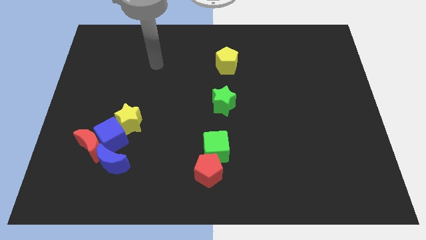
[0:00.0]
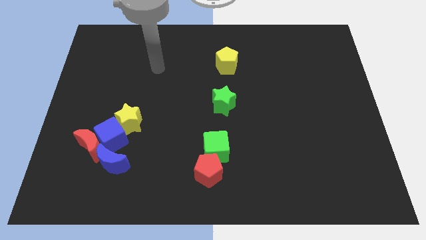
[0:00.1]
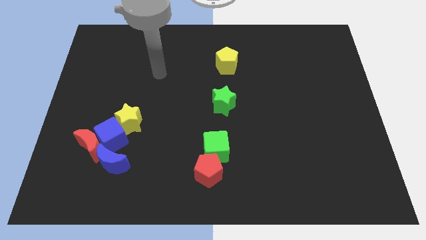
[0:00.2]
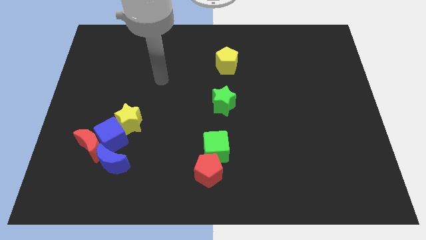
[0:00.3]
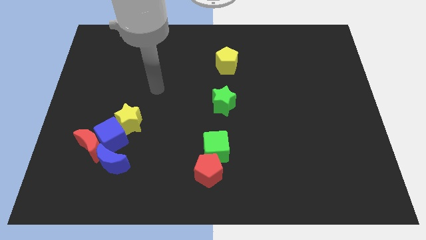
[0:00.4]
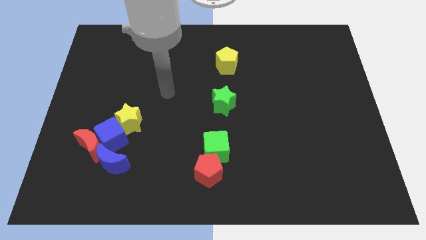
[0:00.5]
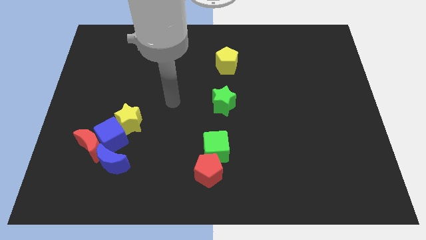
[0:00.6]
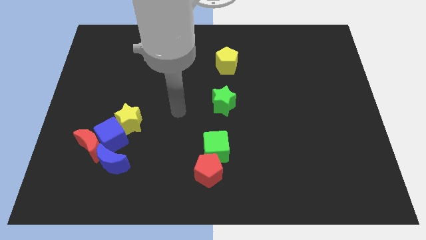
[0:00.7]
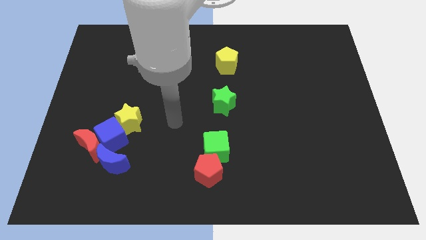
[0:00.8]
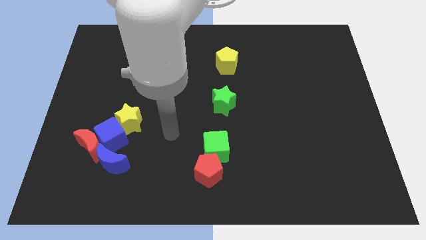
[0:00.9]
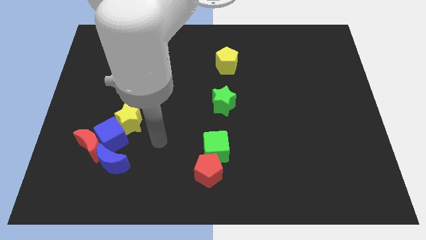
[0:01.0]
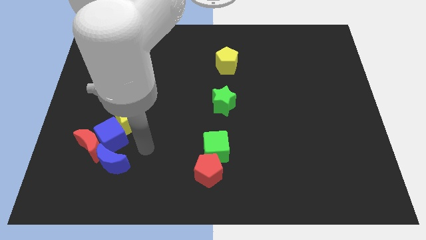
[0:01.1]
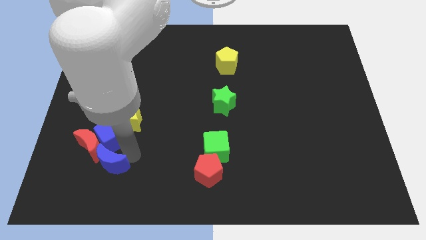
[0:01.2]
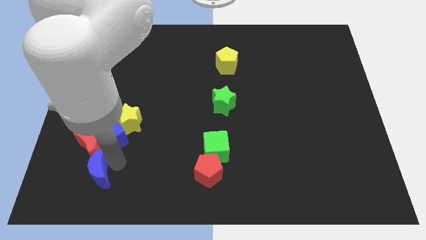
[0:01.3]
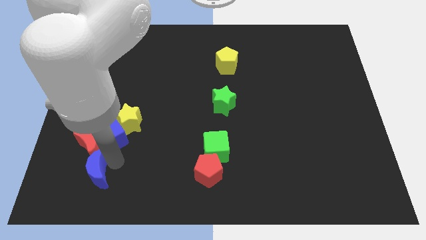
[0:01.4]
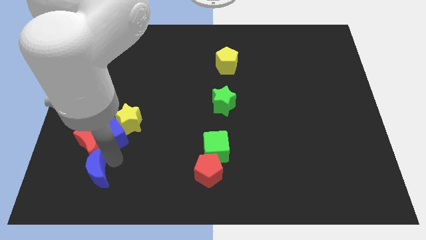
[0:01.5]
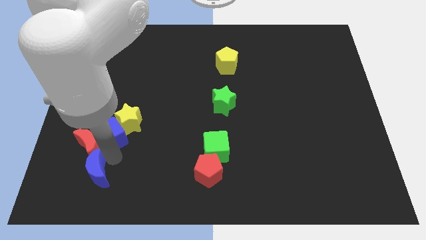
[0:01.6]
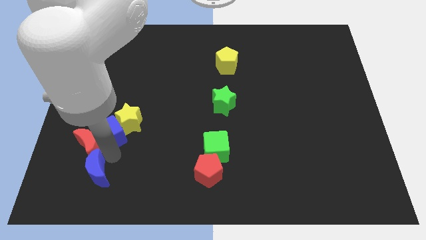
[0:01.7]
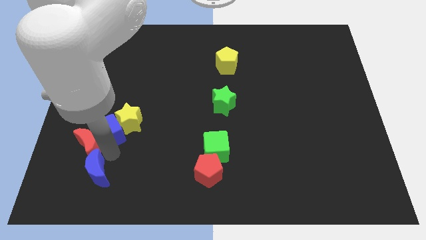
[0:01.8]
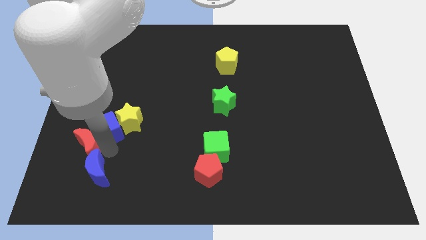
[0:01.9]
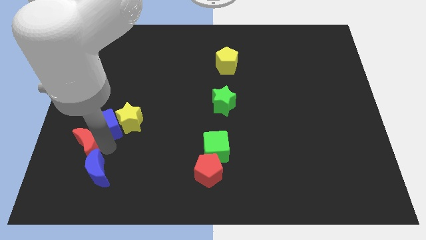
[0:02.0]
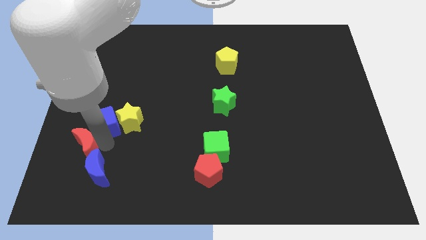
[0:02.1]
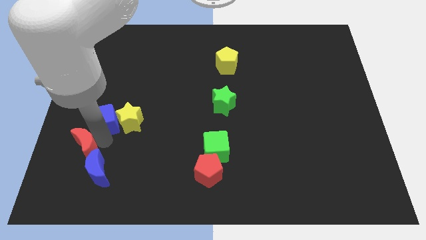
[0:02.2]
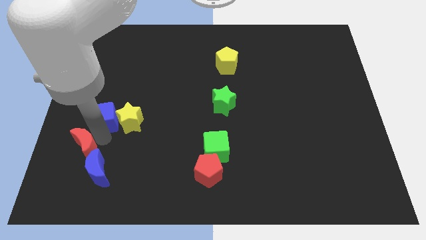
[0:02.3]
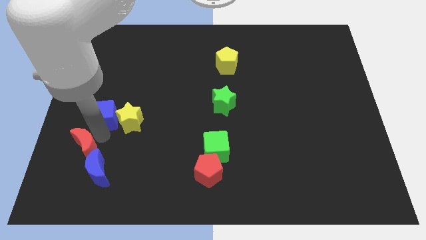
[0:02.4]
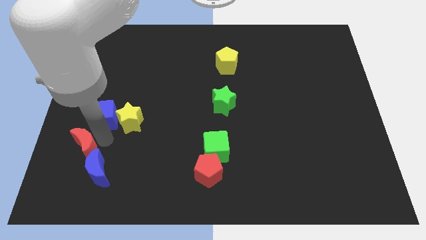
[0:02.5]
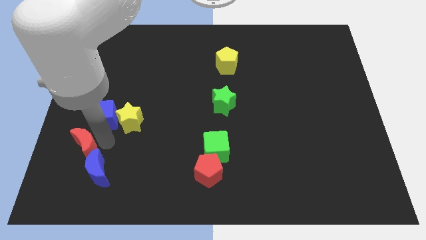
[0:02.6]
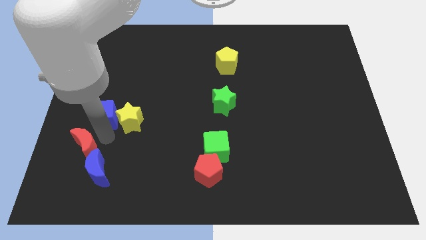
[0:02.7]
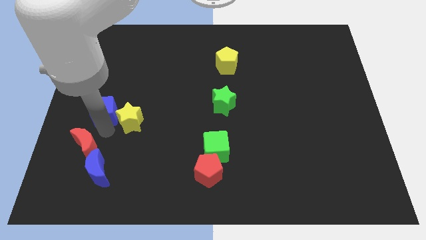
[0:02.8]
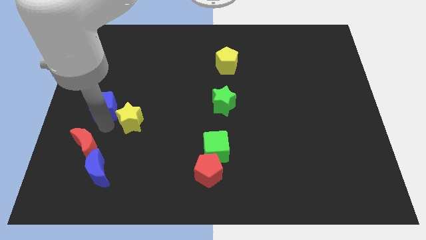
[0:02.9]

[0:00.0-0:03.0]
move the blue cube away from the red moon, yellow star, and blue moon

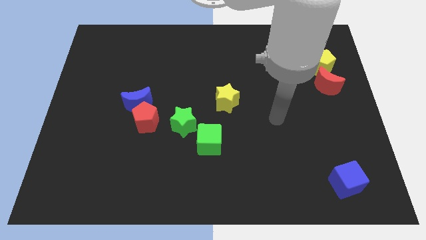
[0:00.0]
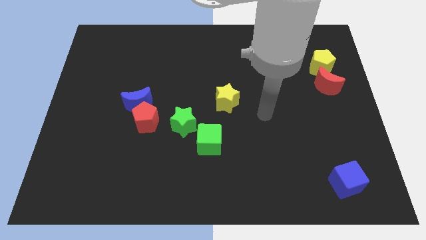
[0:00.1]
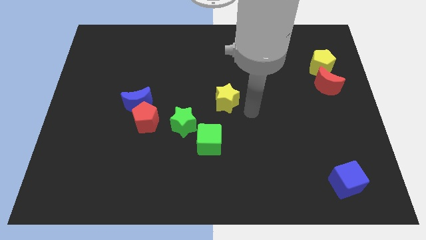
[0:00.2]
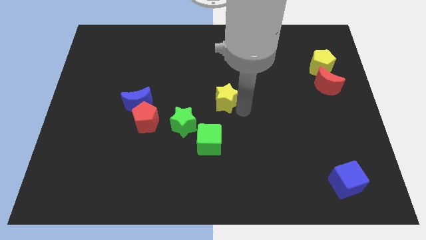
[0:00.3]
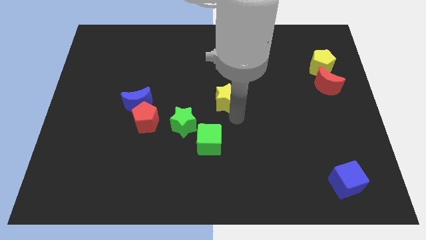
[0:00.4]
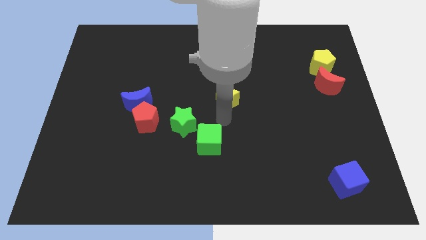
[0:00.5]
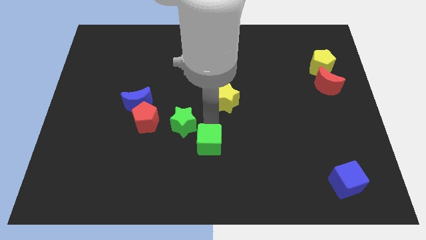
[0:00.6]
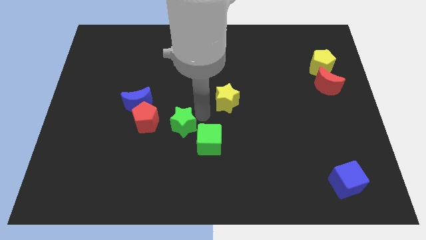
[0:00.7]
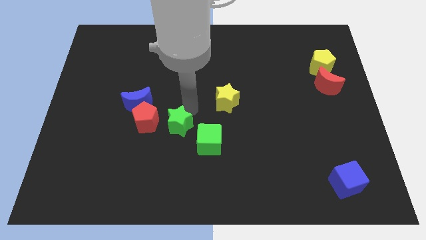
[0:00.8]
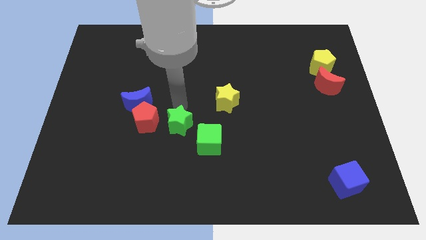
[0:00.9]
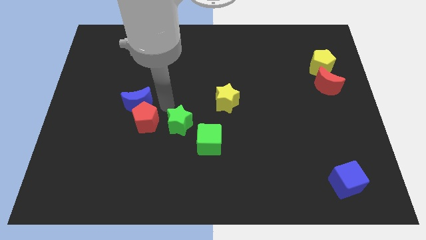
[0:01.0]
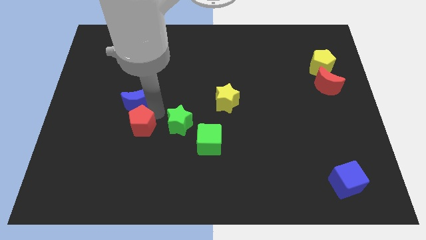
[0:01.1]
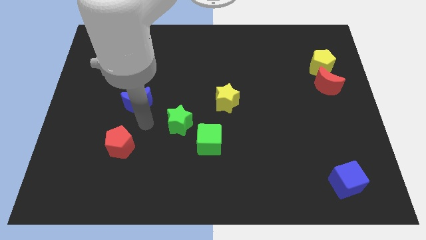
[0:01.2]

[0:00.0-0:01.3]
separate the blue moon from the red pentagon

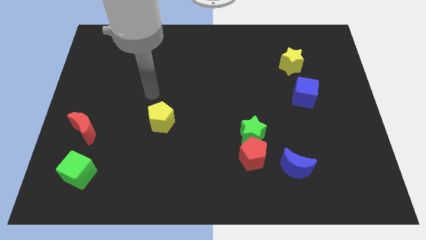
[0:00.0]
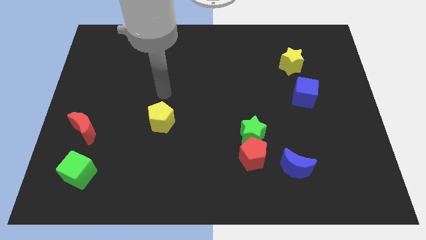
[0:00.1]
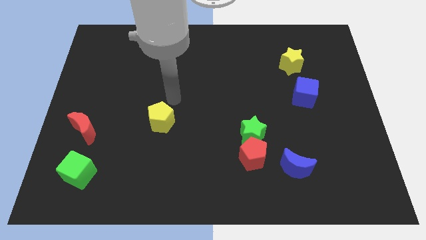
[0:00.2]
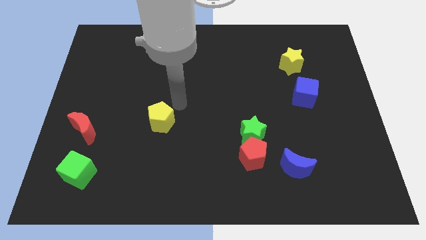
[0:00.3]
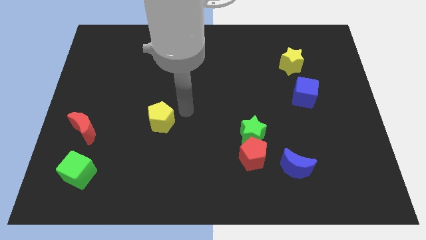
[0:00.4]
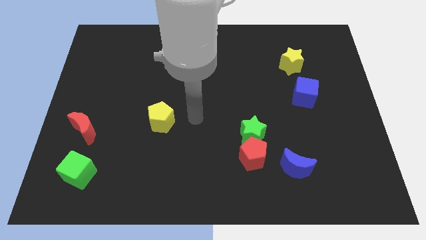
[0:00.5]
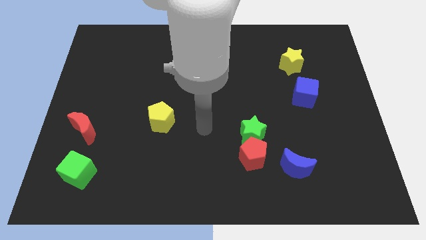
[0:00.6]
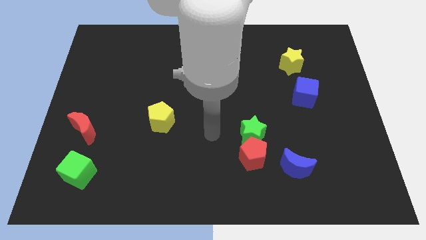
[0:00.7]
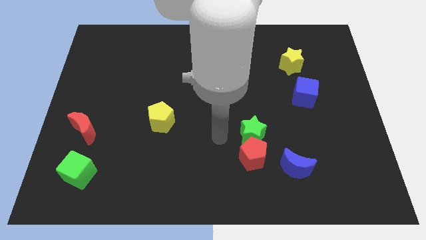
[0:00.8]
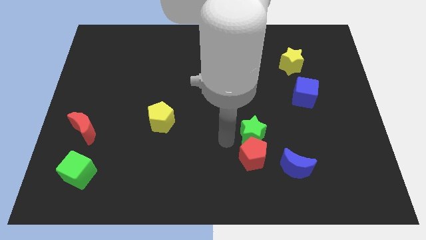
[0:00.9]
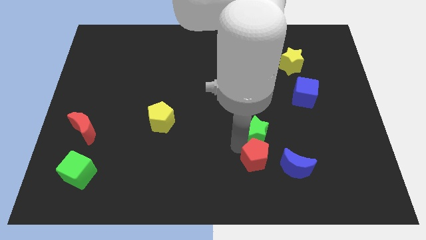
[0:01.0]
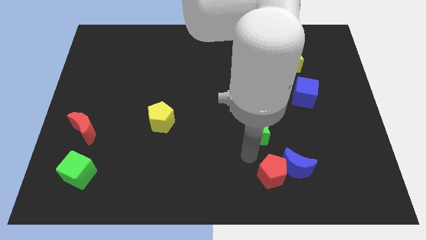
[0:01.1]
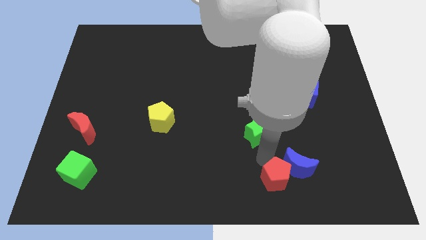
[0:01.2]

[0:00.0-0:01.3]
move the green star away from the red pentagon

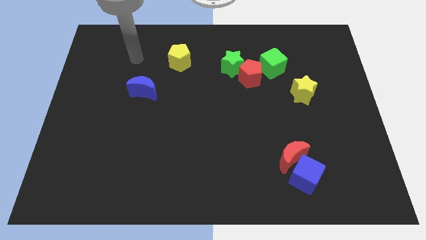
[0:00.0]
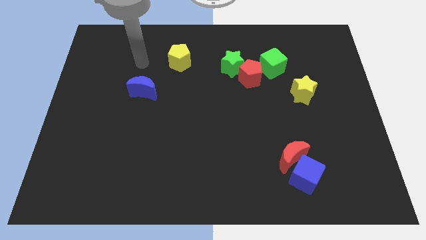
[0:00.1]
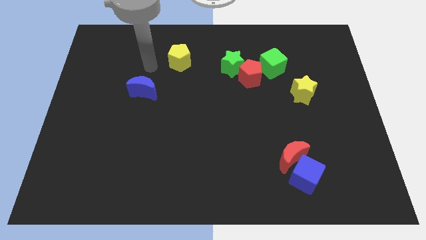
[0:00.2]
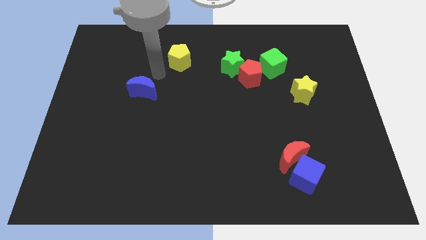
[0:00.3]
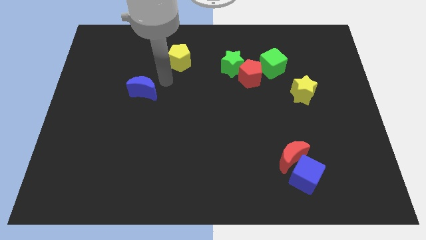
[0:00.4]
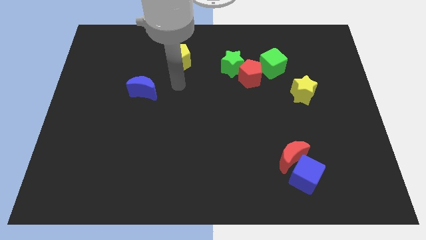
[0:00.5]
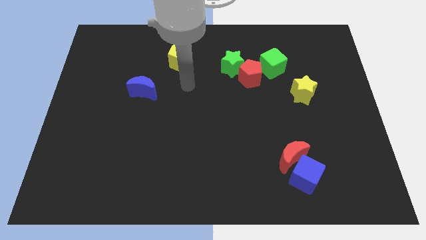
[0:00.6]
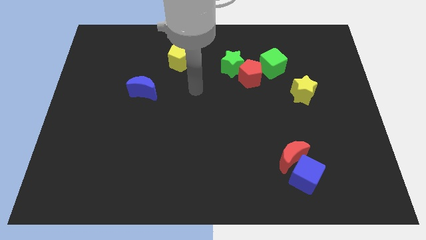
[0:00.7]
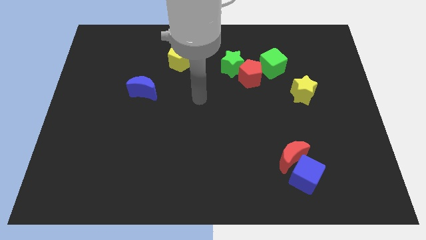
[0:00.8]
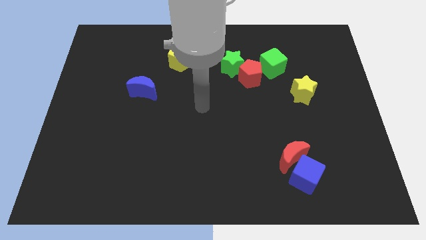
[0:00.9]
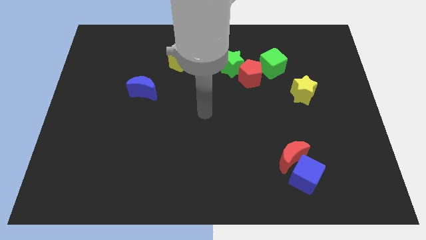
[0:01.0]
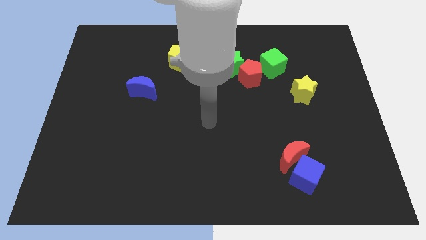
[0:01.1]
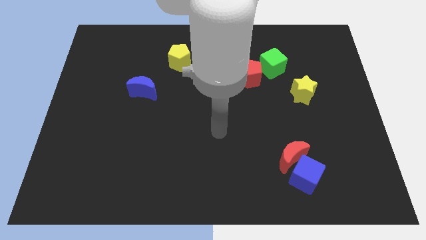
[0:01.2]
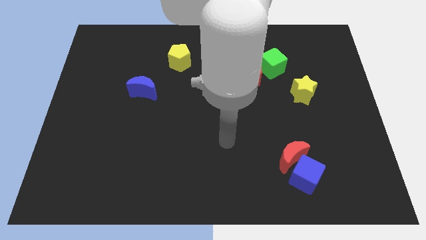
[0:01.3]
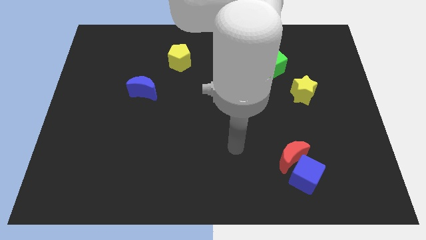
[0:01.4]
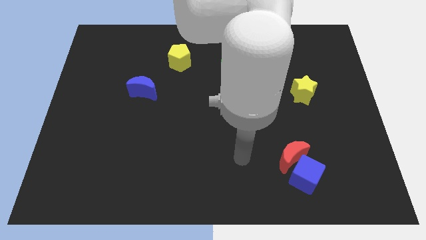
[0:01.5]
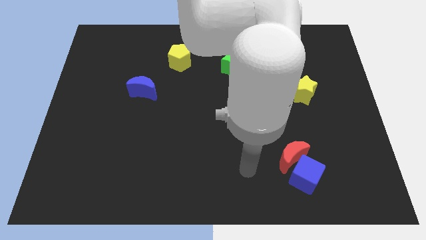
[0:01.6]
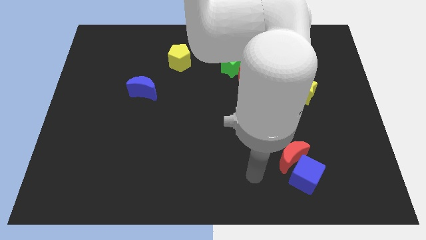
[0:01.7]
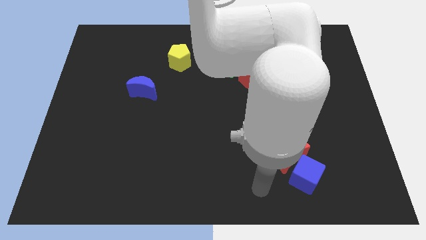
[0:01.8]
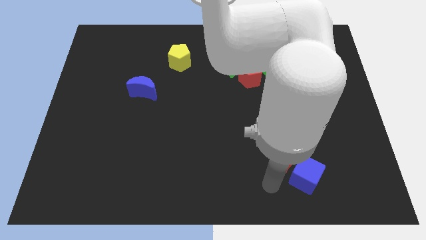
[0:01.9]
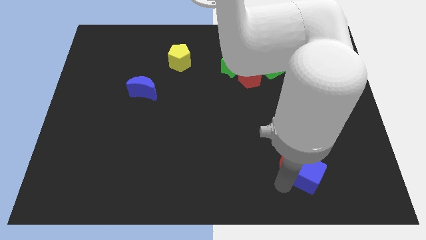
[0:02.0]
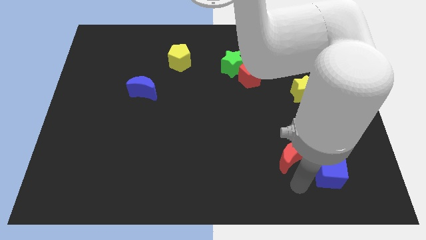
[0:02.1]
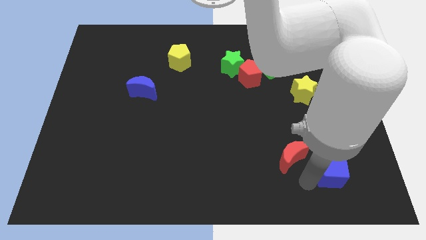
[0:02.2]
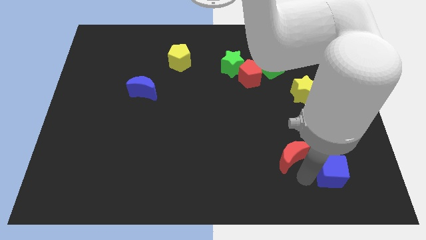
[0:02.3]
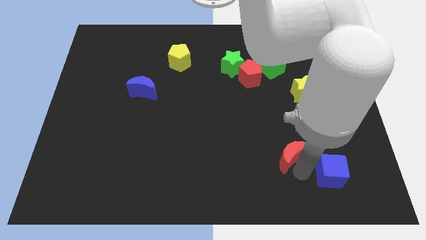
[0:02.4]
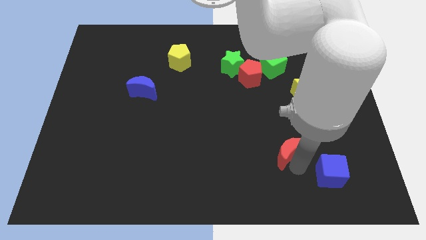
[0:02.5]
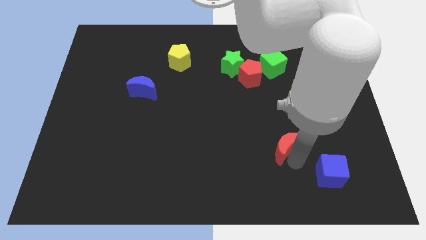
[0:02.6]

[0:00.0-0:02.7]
move the red moon away from the blue cube

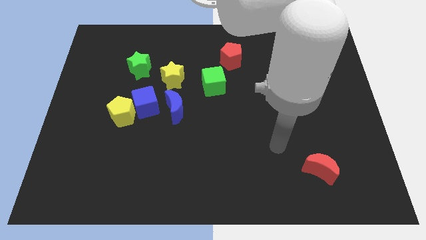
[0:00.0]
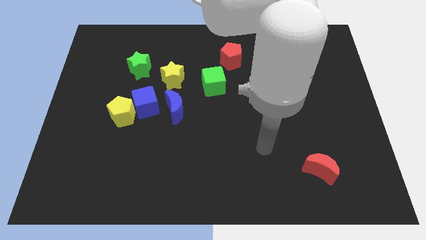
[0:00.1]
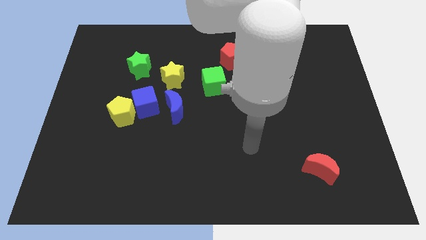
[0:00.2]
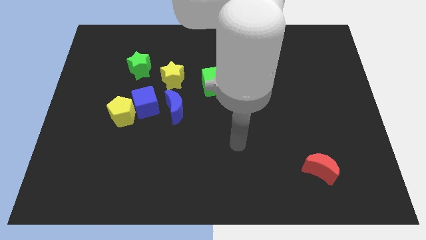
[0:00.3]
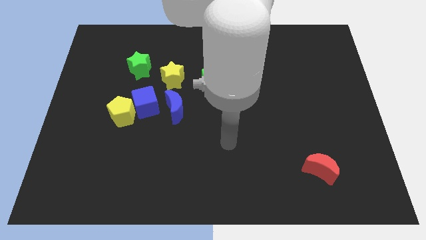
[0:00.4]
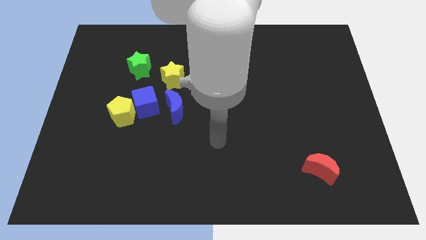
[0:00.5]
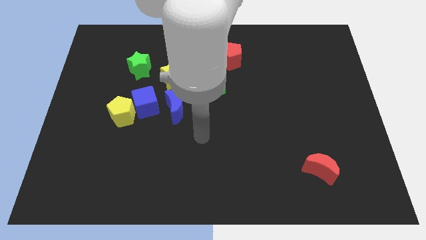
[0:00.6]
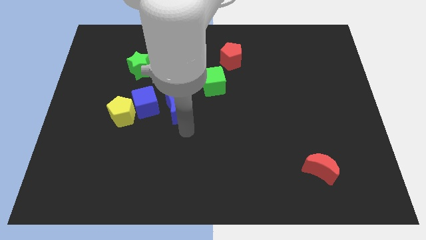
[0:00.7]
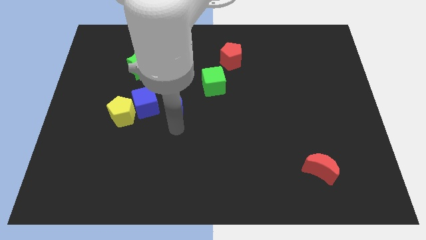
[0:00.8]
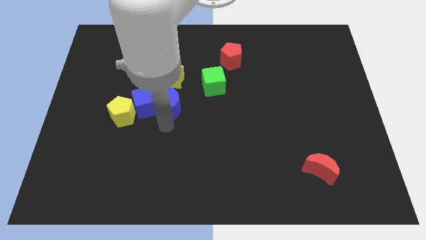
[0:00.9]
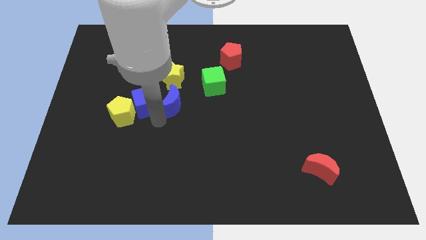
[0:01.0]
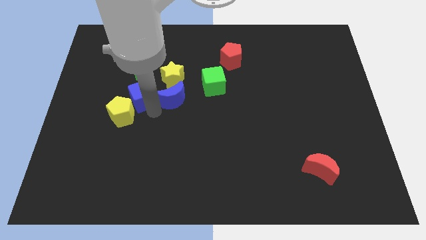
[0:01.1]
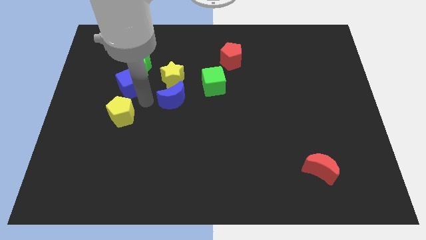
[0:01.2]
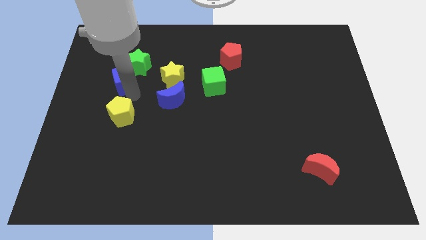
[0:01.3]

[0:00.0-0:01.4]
move the yellow pentagon away from the blue cube
